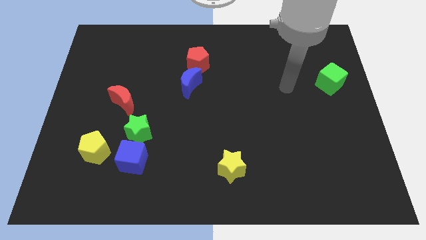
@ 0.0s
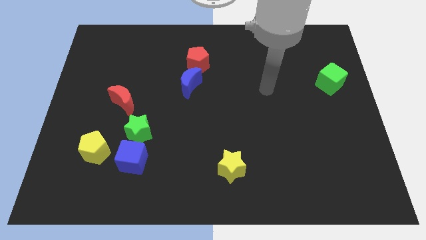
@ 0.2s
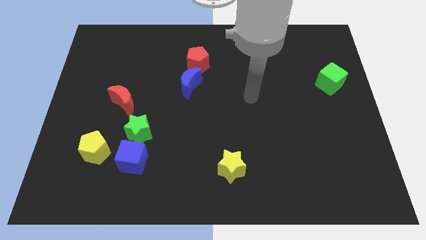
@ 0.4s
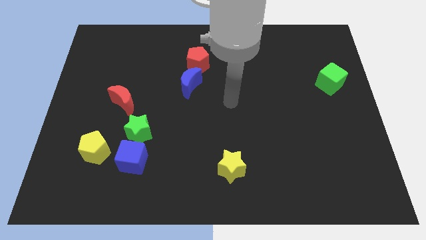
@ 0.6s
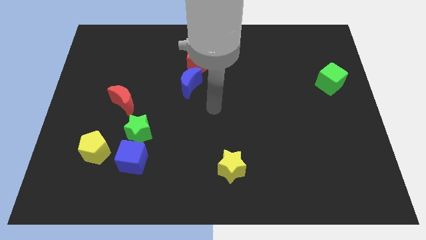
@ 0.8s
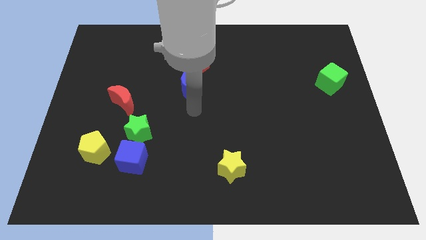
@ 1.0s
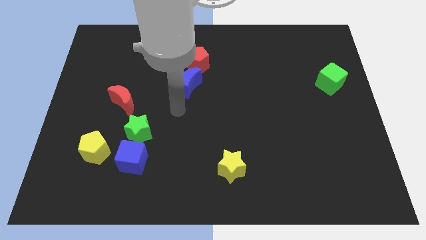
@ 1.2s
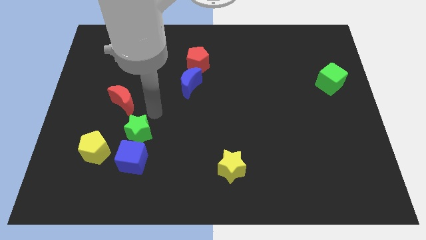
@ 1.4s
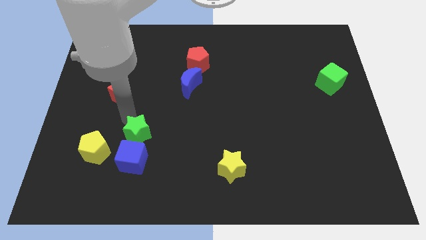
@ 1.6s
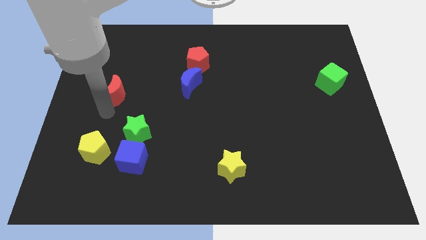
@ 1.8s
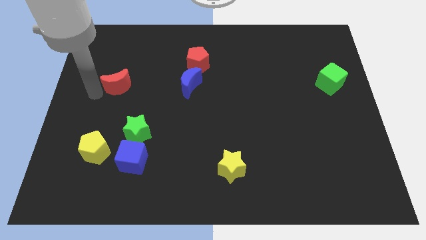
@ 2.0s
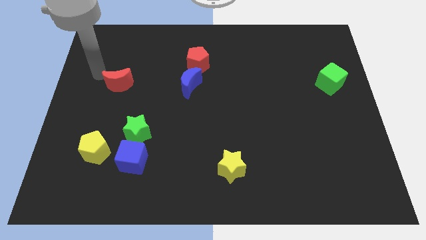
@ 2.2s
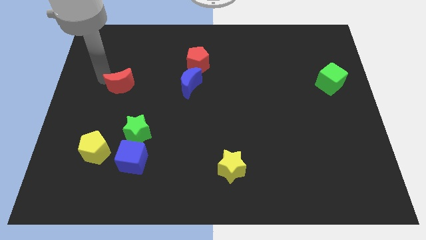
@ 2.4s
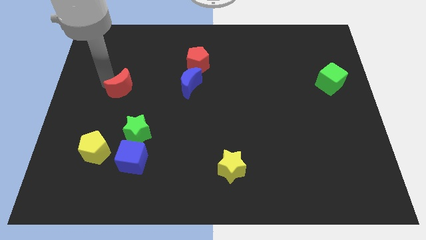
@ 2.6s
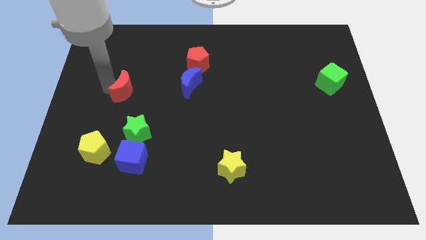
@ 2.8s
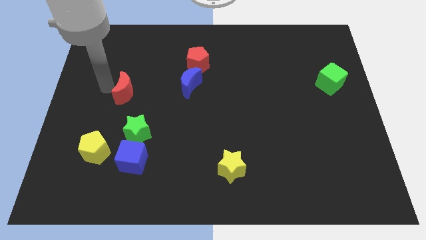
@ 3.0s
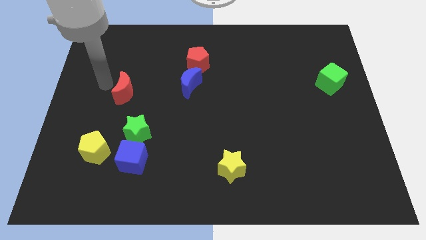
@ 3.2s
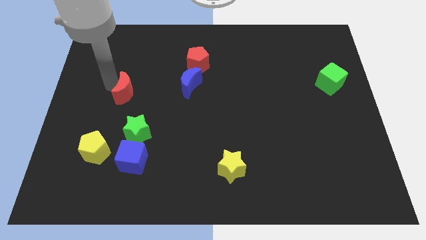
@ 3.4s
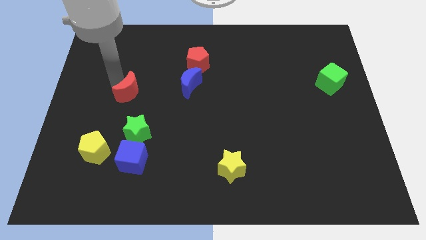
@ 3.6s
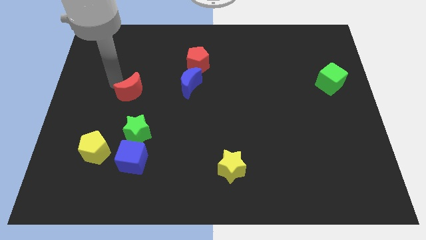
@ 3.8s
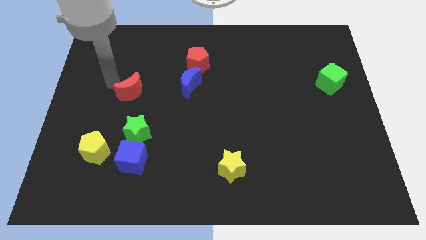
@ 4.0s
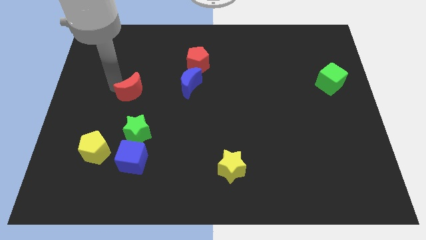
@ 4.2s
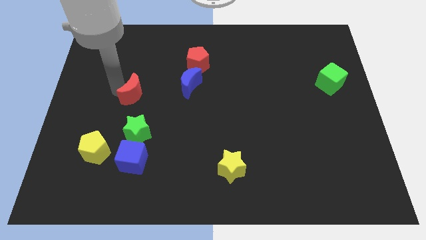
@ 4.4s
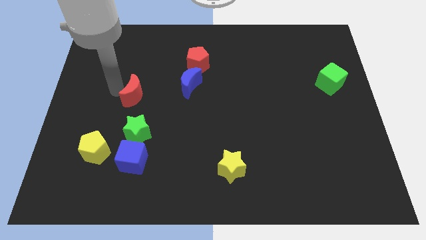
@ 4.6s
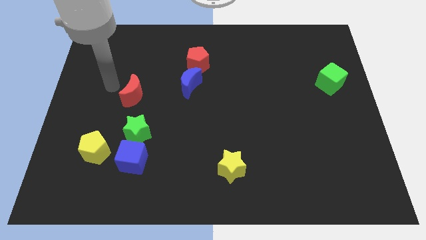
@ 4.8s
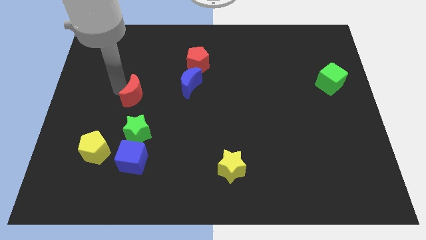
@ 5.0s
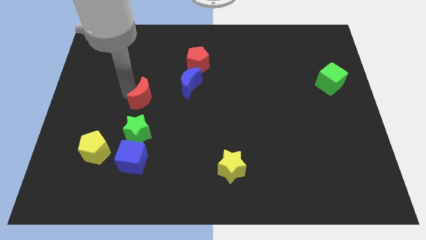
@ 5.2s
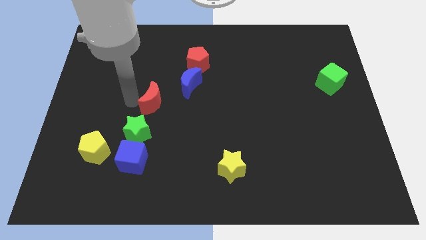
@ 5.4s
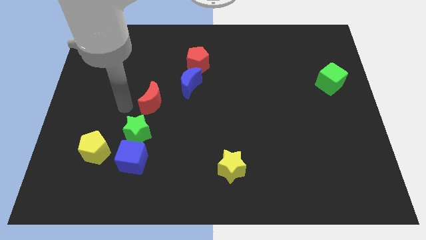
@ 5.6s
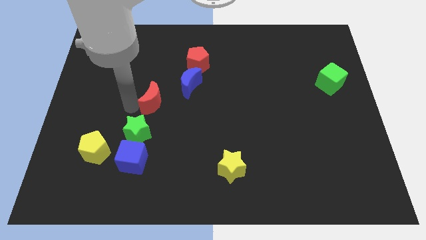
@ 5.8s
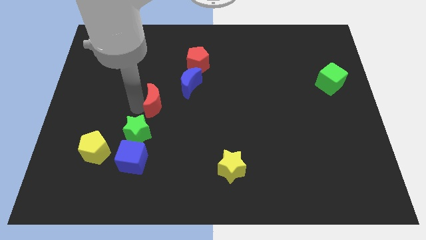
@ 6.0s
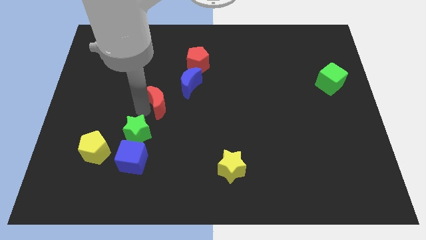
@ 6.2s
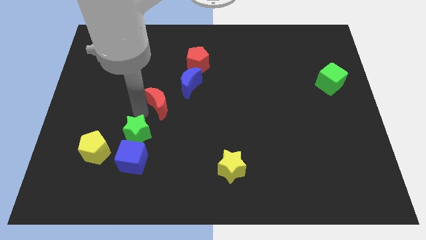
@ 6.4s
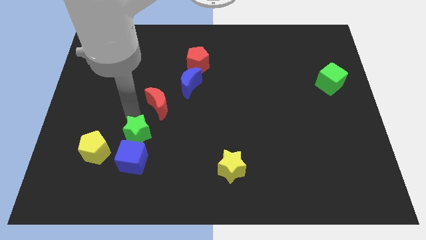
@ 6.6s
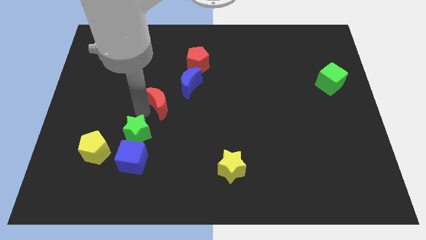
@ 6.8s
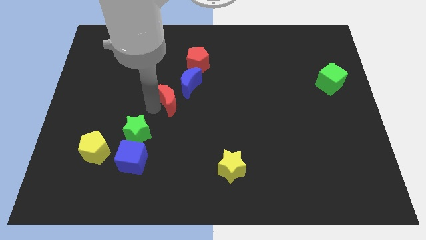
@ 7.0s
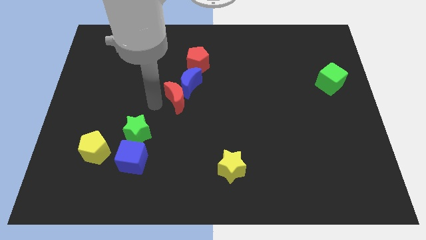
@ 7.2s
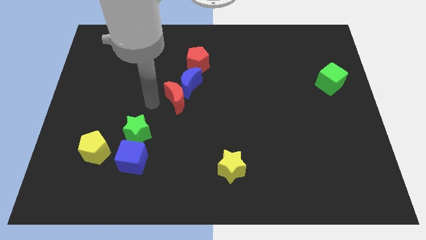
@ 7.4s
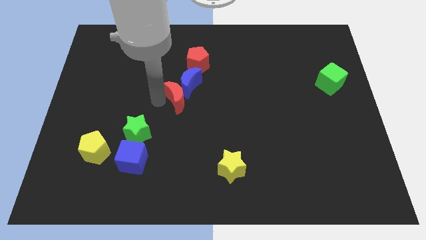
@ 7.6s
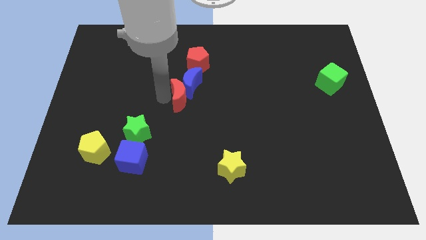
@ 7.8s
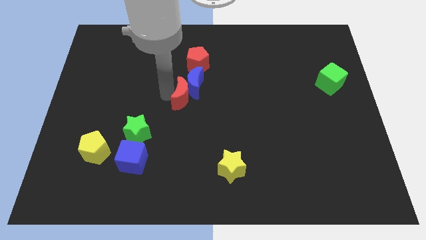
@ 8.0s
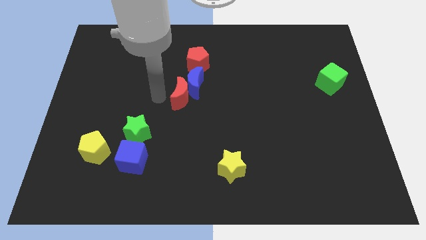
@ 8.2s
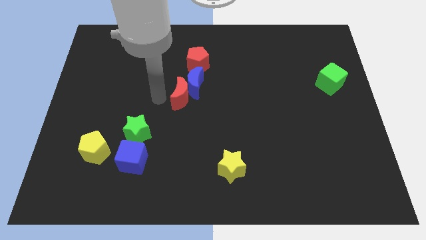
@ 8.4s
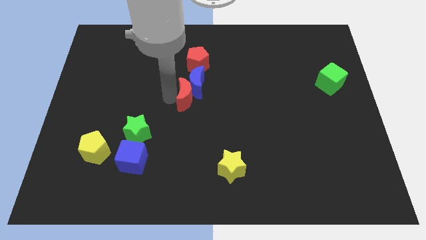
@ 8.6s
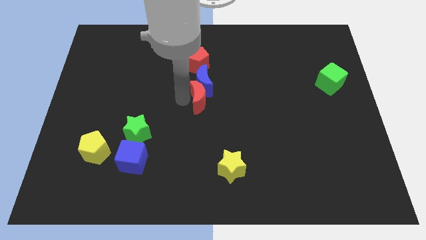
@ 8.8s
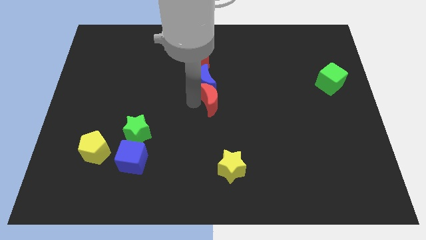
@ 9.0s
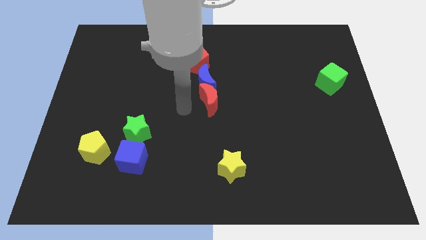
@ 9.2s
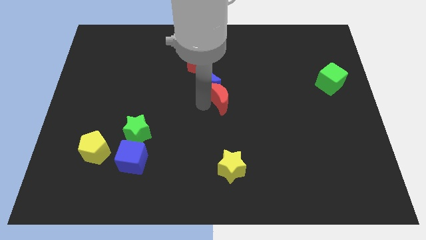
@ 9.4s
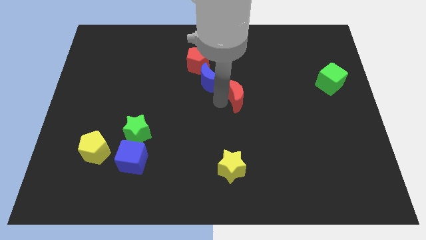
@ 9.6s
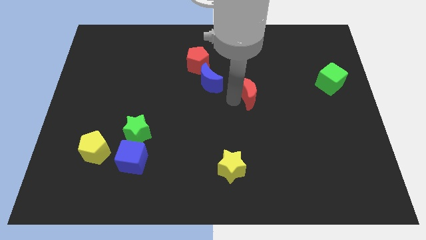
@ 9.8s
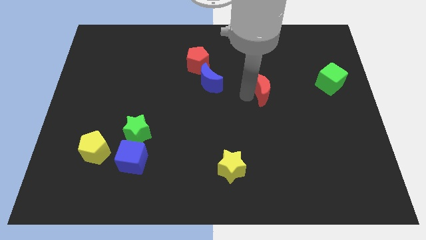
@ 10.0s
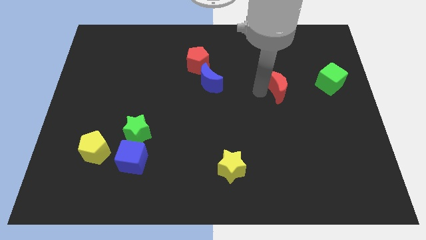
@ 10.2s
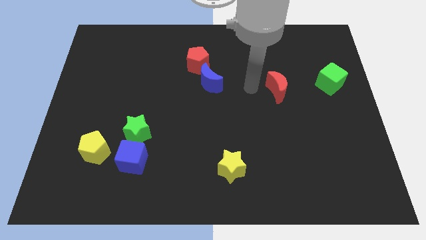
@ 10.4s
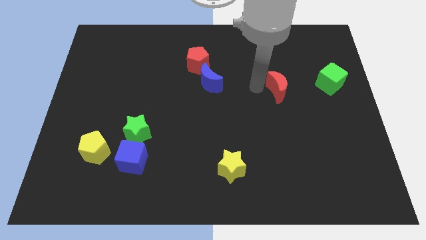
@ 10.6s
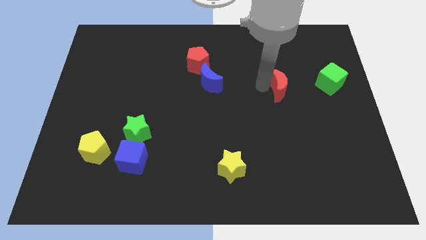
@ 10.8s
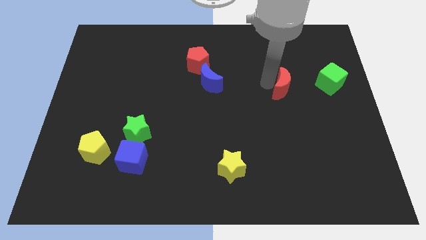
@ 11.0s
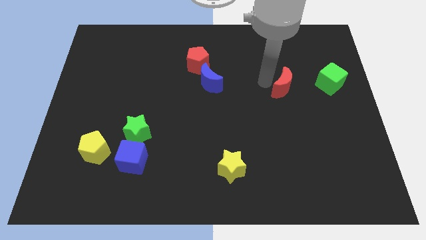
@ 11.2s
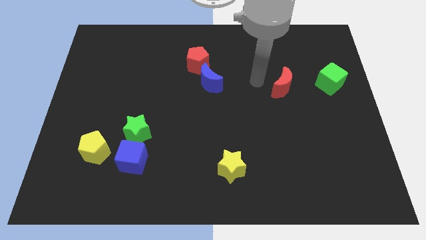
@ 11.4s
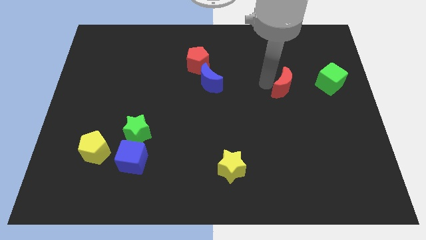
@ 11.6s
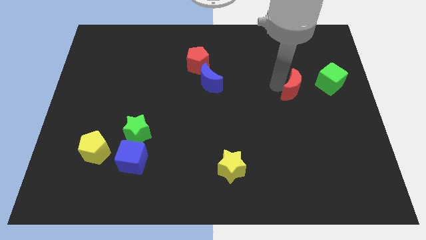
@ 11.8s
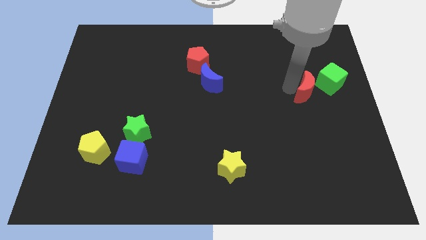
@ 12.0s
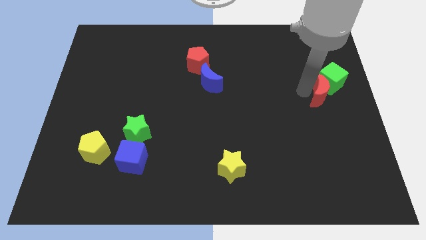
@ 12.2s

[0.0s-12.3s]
push the red moon to the right side of the board
